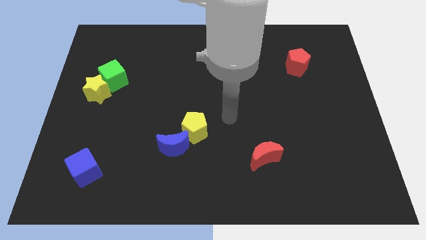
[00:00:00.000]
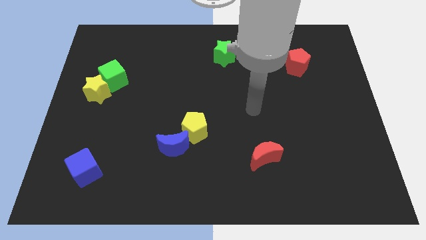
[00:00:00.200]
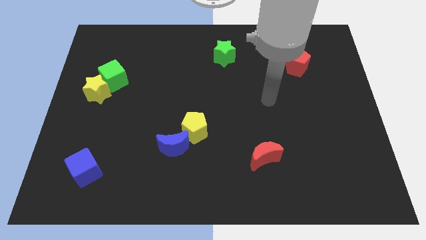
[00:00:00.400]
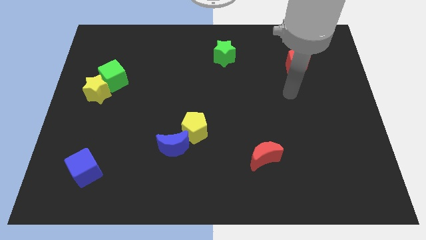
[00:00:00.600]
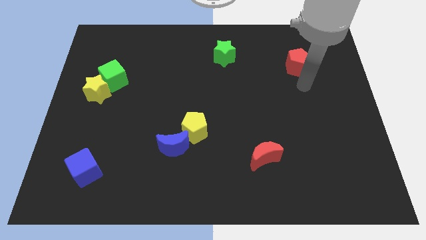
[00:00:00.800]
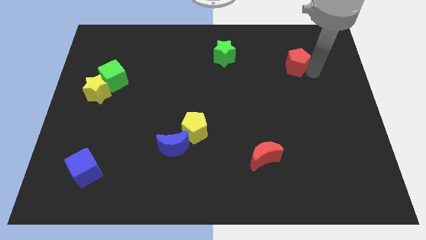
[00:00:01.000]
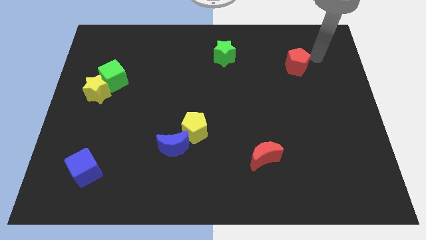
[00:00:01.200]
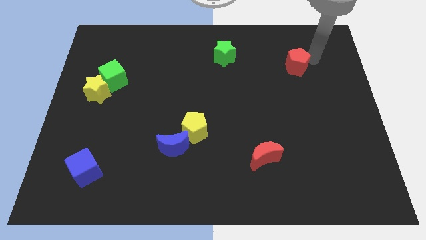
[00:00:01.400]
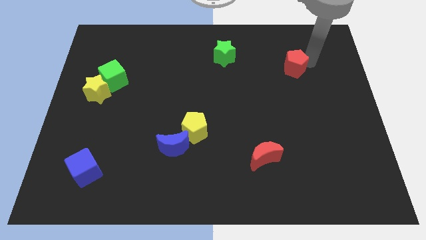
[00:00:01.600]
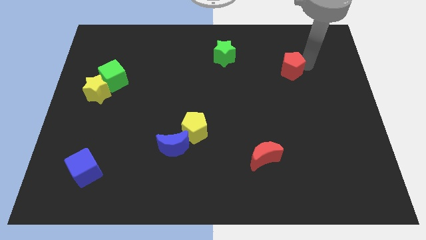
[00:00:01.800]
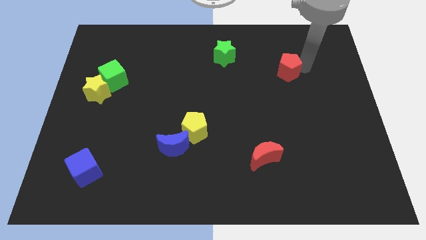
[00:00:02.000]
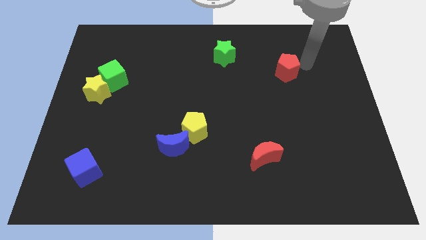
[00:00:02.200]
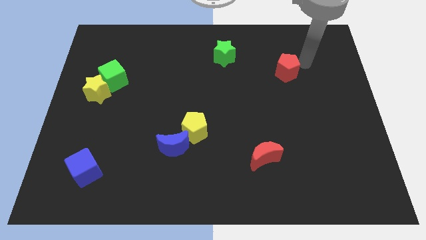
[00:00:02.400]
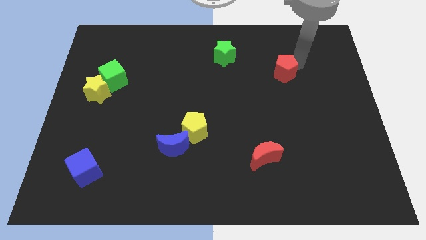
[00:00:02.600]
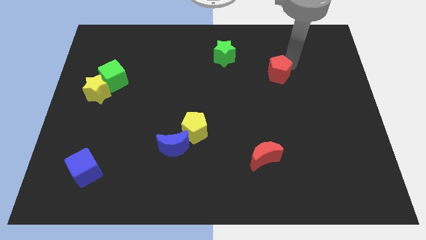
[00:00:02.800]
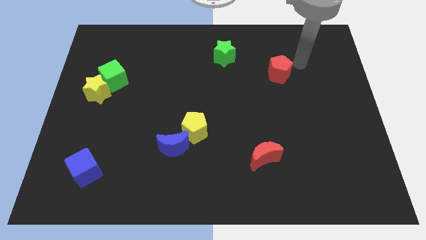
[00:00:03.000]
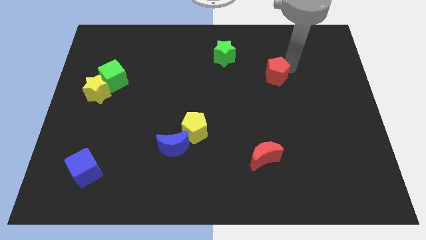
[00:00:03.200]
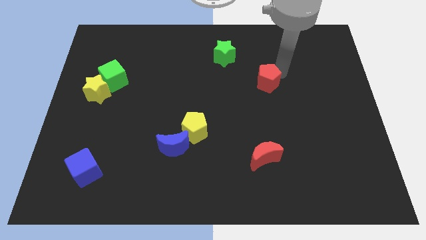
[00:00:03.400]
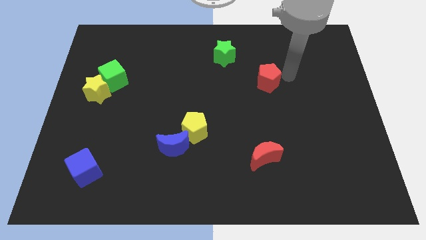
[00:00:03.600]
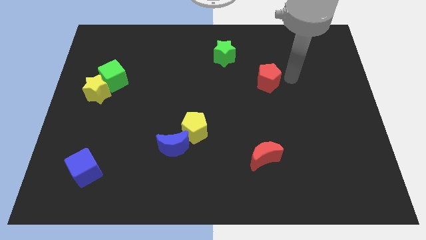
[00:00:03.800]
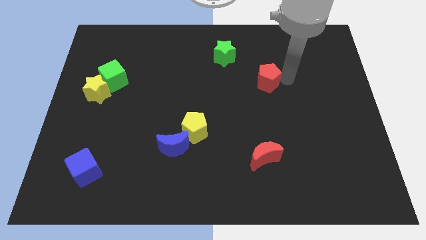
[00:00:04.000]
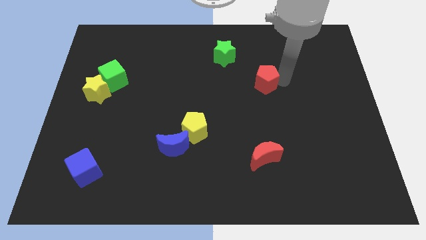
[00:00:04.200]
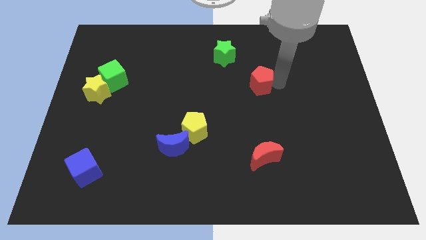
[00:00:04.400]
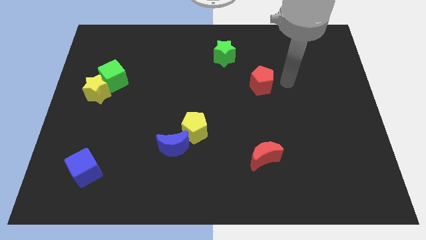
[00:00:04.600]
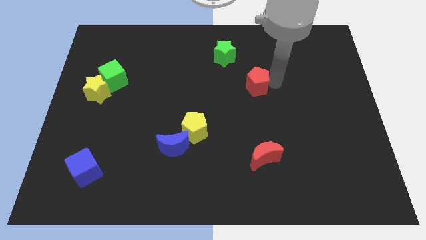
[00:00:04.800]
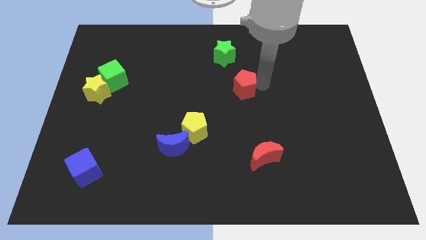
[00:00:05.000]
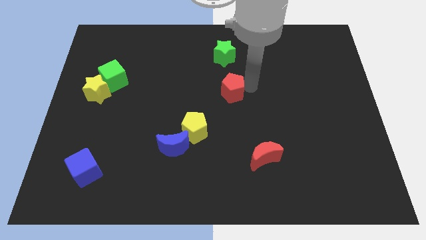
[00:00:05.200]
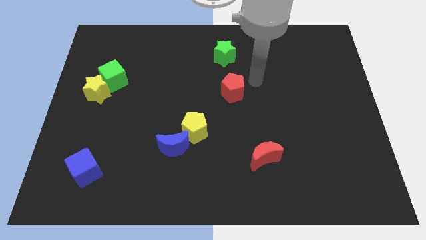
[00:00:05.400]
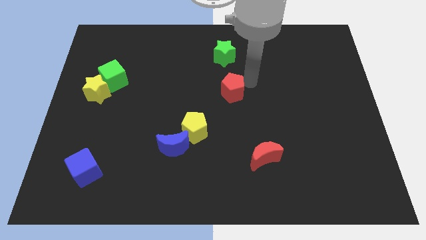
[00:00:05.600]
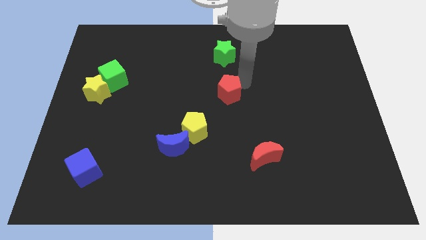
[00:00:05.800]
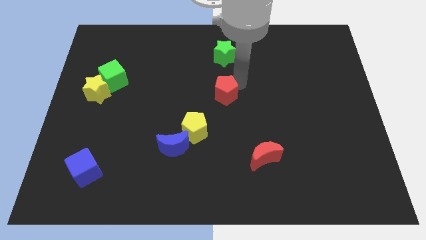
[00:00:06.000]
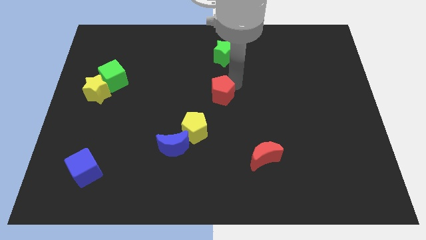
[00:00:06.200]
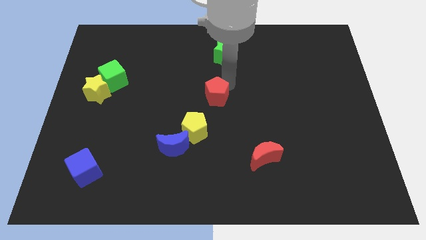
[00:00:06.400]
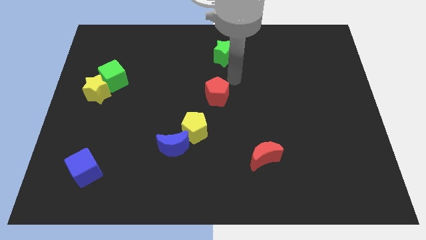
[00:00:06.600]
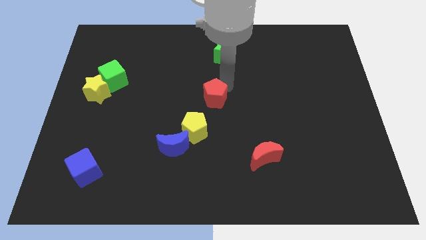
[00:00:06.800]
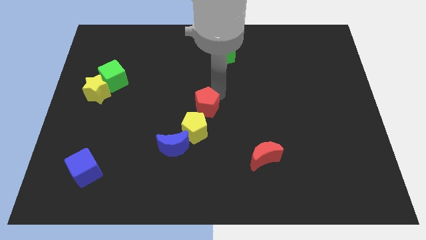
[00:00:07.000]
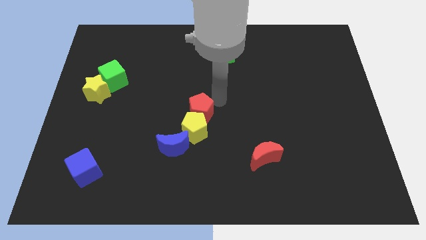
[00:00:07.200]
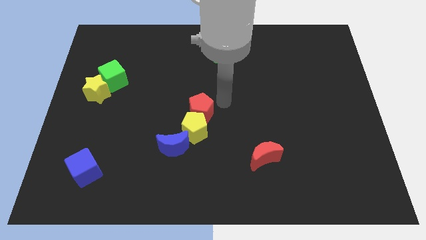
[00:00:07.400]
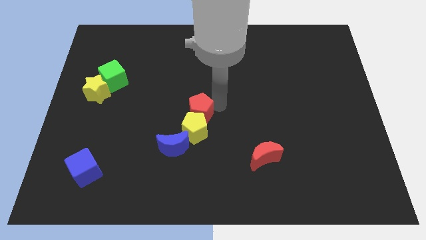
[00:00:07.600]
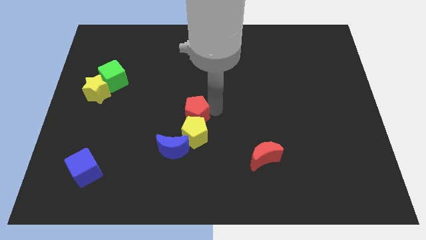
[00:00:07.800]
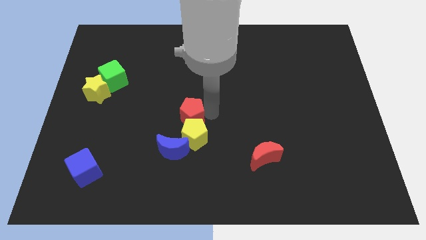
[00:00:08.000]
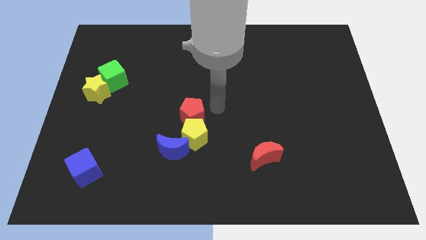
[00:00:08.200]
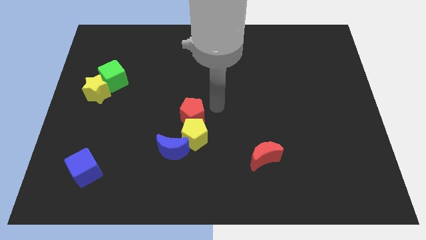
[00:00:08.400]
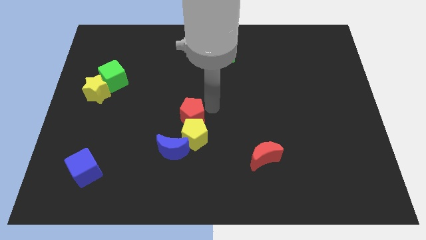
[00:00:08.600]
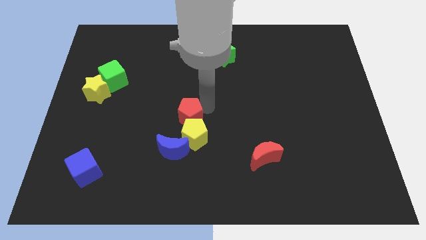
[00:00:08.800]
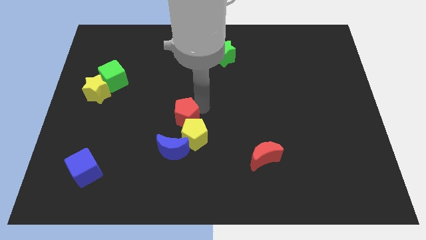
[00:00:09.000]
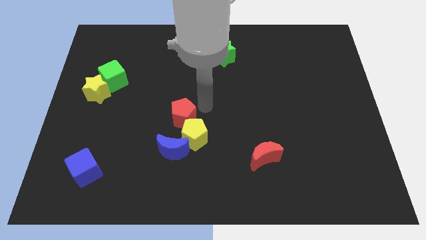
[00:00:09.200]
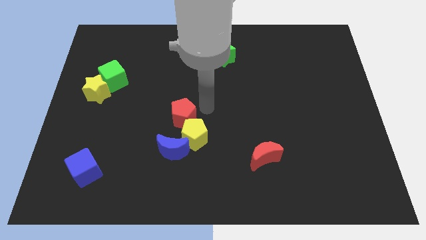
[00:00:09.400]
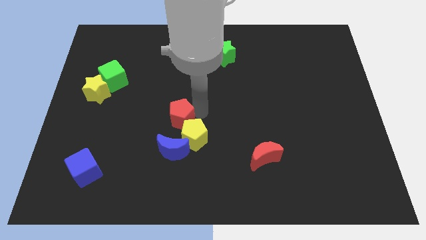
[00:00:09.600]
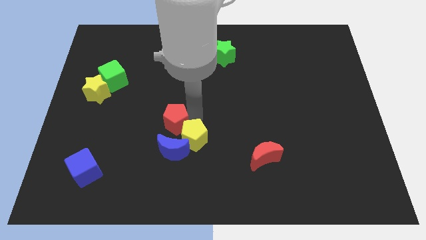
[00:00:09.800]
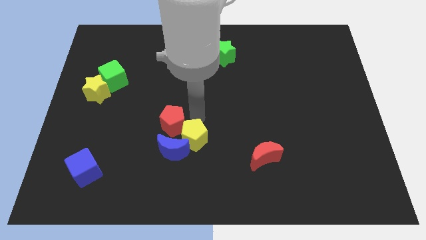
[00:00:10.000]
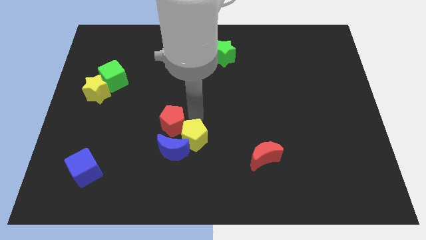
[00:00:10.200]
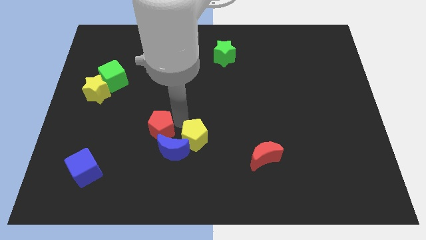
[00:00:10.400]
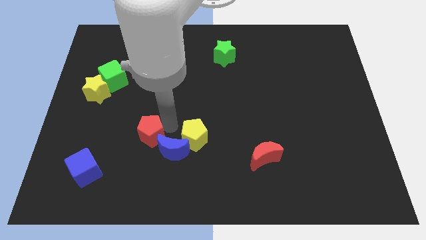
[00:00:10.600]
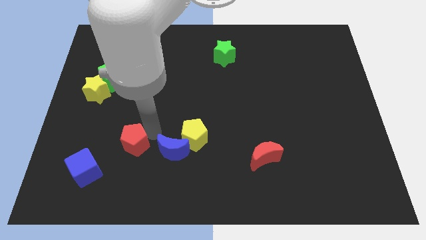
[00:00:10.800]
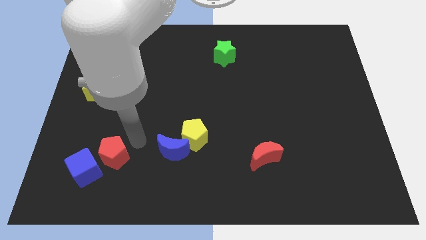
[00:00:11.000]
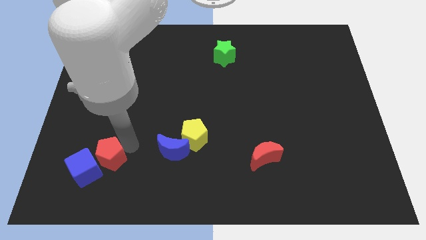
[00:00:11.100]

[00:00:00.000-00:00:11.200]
move the red pentagon to the blue cube

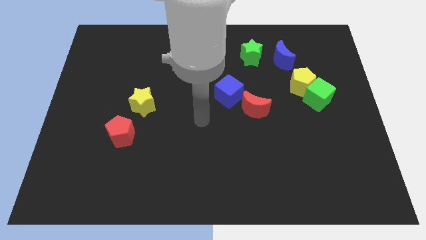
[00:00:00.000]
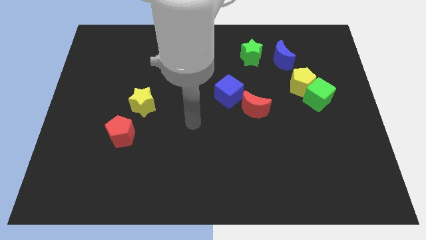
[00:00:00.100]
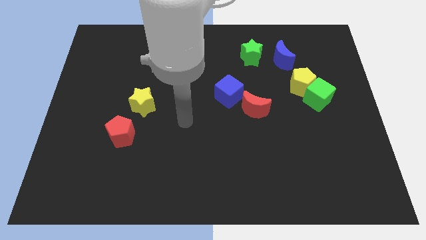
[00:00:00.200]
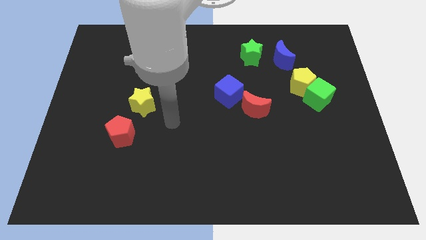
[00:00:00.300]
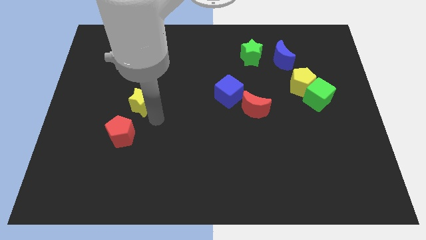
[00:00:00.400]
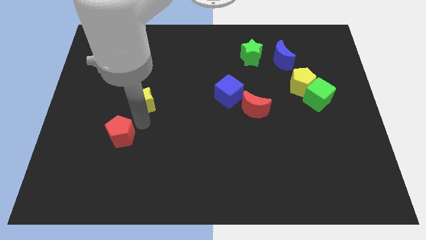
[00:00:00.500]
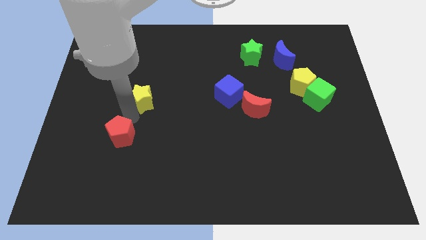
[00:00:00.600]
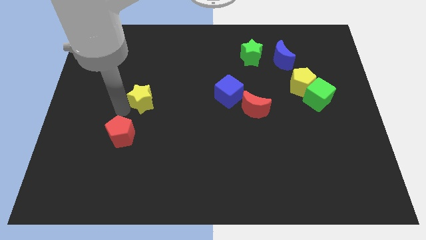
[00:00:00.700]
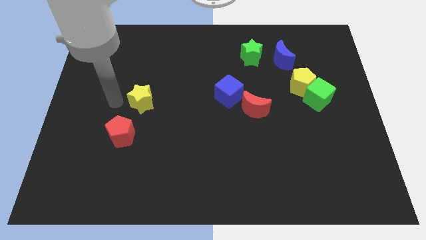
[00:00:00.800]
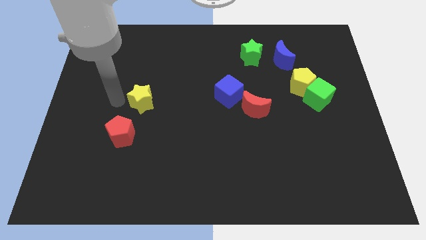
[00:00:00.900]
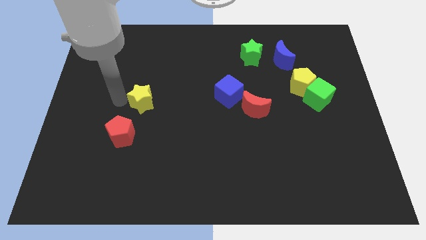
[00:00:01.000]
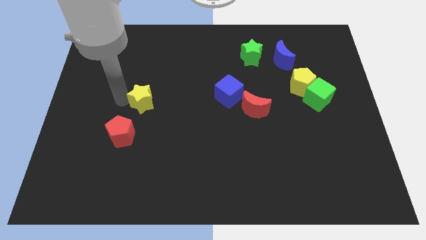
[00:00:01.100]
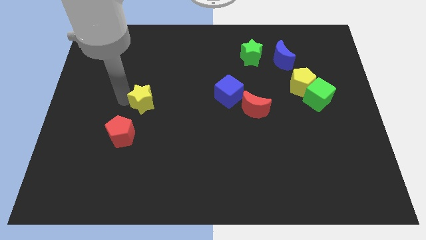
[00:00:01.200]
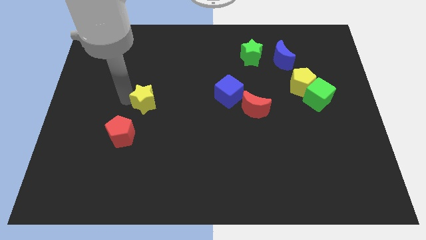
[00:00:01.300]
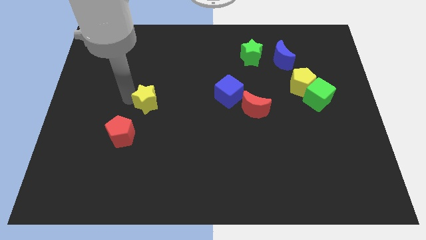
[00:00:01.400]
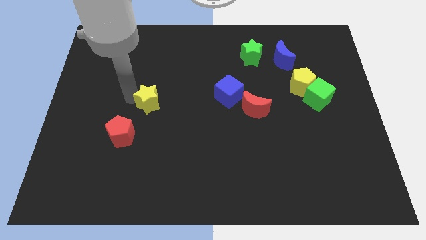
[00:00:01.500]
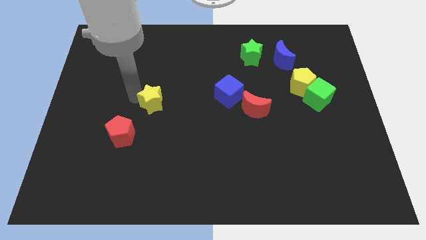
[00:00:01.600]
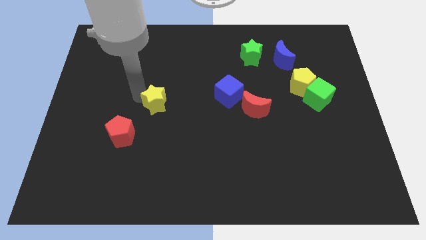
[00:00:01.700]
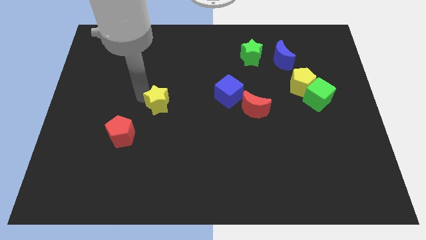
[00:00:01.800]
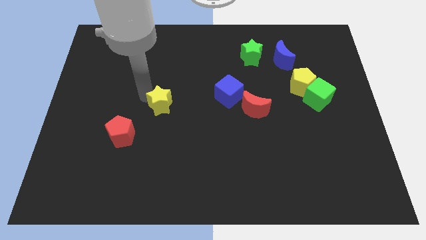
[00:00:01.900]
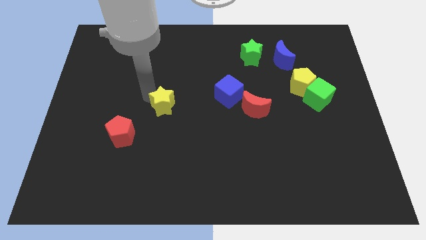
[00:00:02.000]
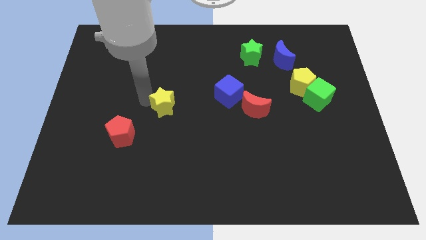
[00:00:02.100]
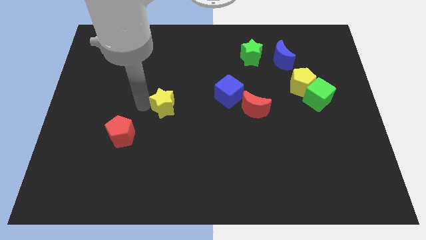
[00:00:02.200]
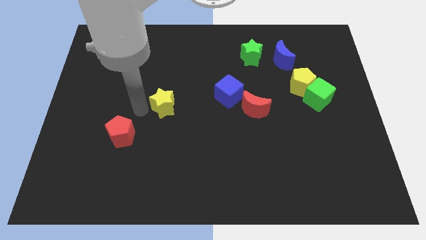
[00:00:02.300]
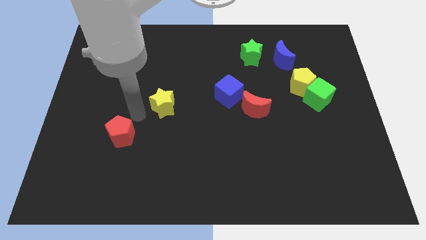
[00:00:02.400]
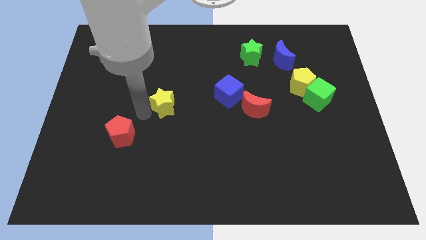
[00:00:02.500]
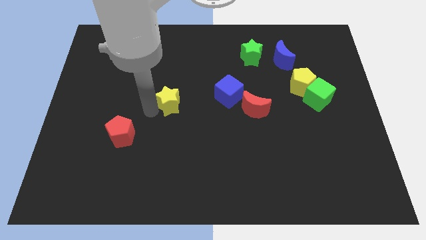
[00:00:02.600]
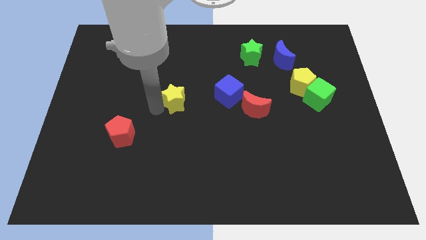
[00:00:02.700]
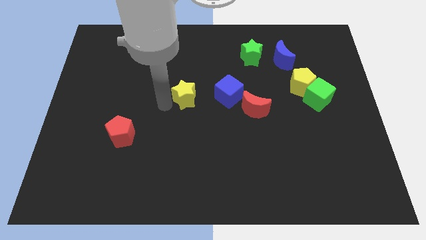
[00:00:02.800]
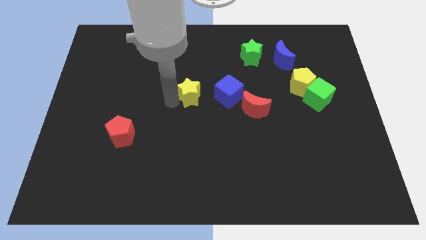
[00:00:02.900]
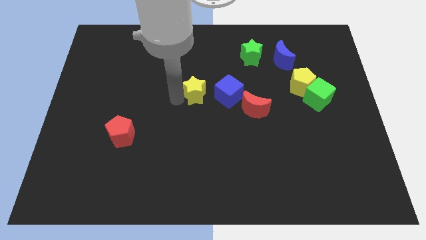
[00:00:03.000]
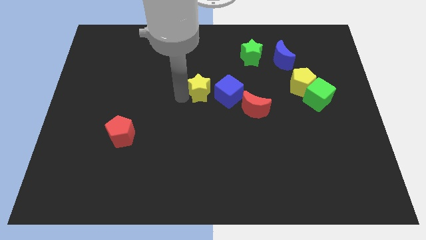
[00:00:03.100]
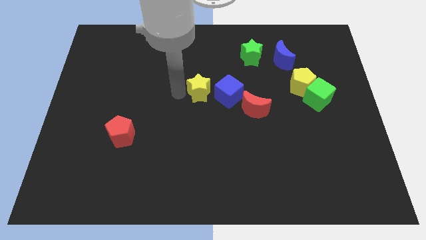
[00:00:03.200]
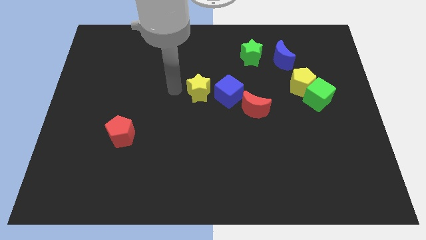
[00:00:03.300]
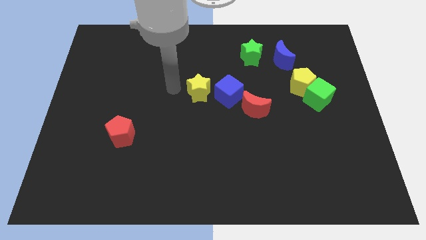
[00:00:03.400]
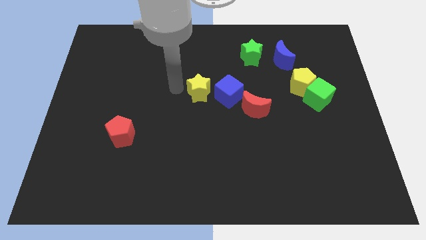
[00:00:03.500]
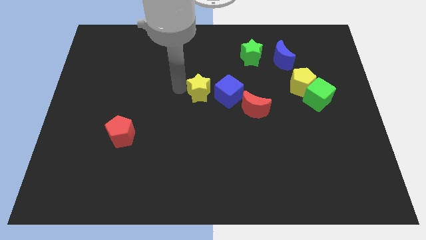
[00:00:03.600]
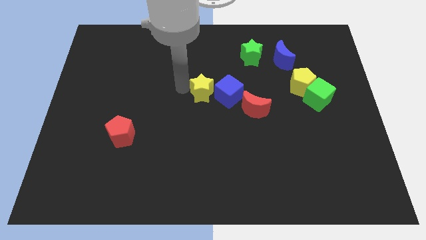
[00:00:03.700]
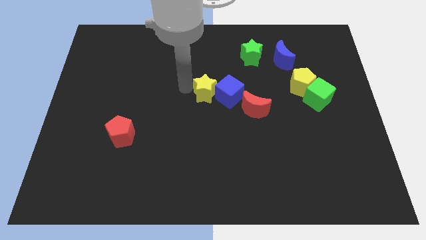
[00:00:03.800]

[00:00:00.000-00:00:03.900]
slide the yellow star next to the blue cube
